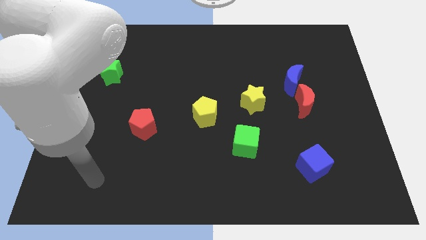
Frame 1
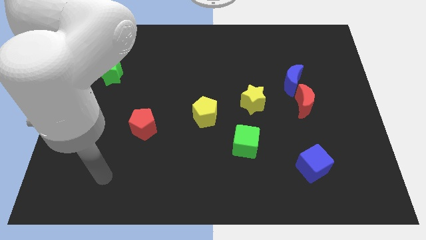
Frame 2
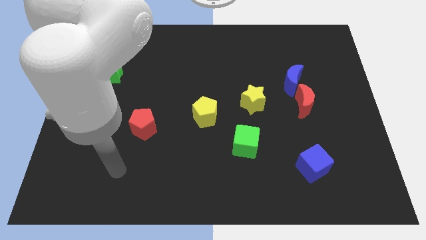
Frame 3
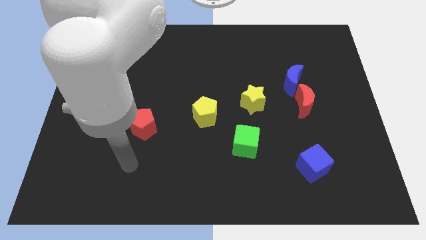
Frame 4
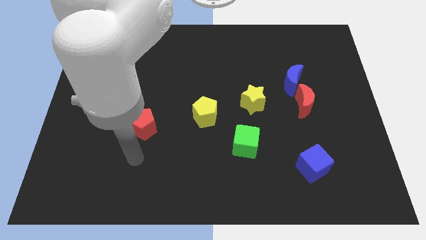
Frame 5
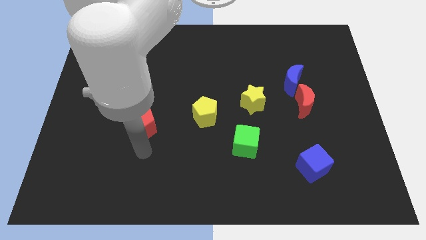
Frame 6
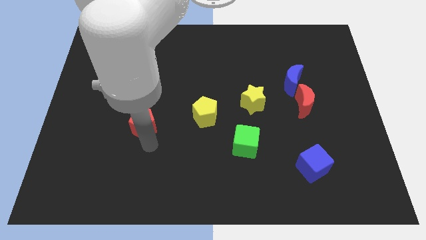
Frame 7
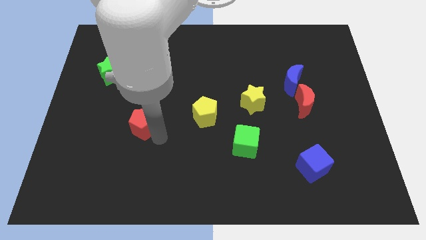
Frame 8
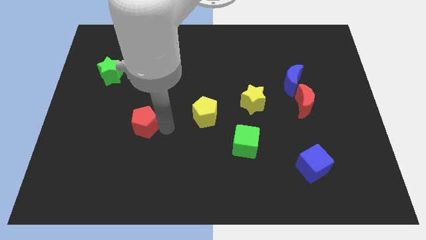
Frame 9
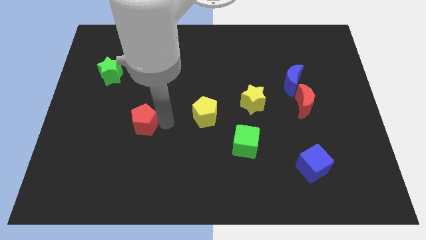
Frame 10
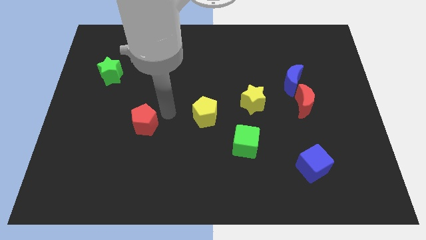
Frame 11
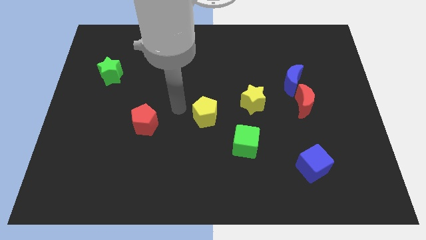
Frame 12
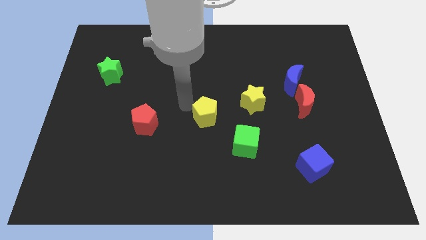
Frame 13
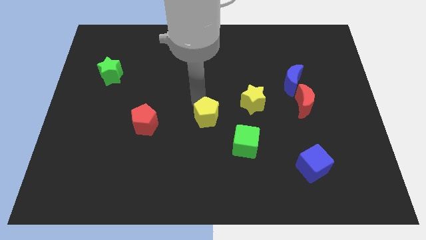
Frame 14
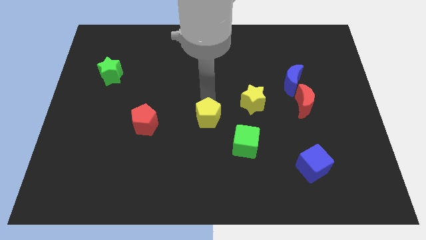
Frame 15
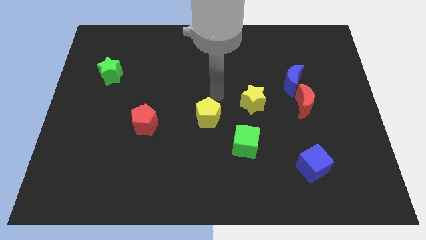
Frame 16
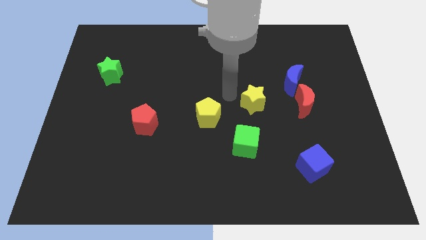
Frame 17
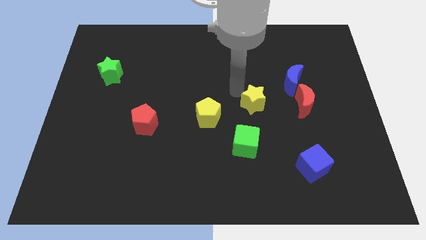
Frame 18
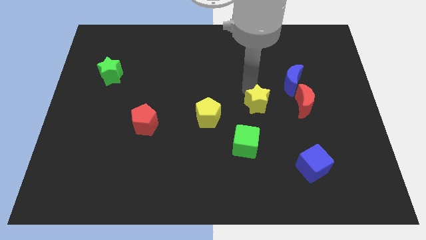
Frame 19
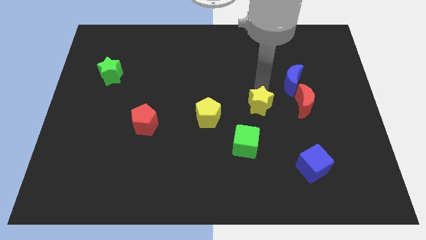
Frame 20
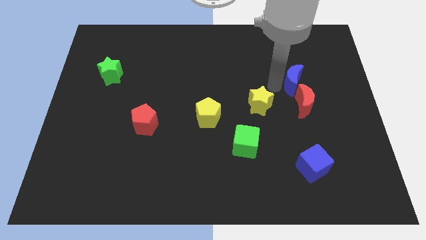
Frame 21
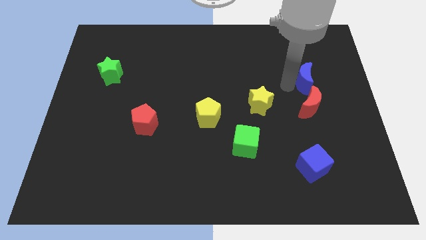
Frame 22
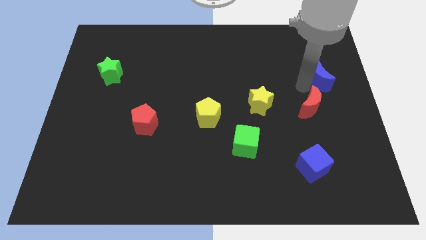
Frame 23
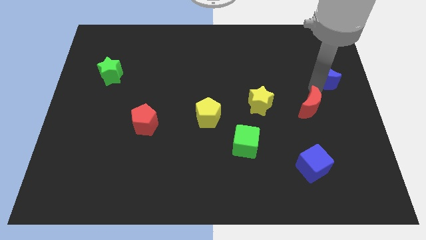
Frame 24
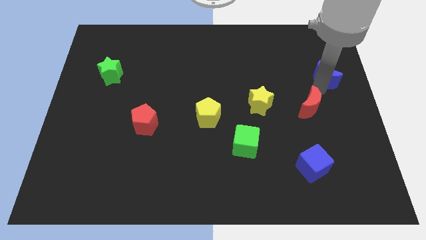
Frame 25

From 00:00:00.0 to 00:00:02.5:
separate the red moon from the blue moon

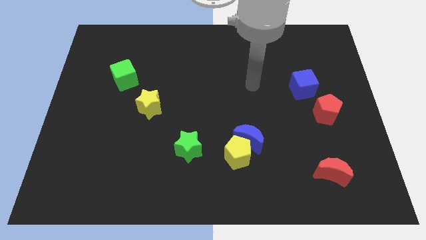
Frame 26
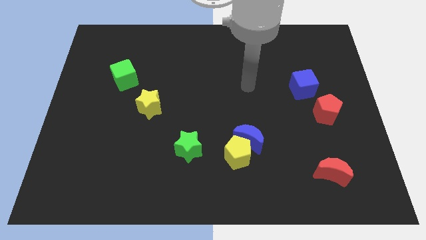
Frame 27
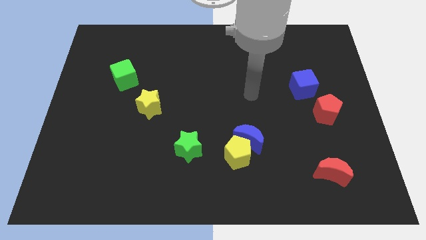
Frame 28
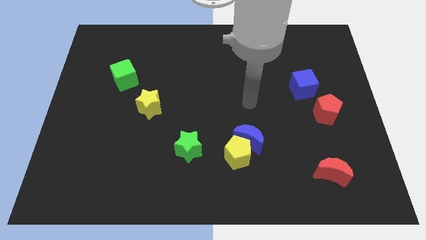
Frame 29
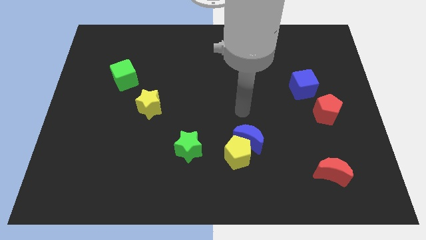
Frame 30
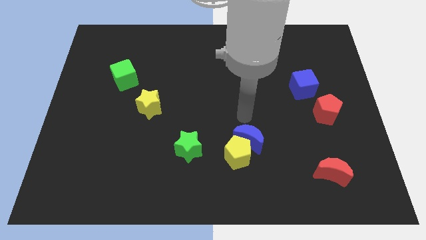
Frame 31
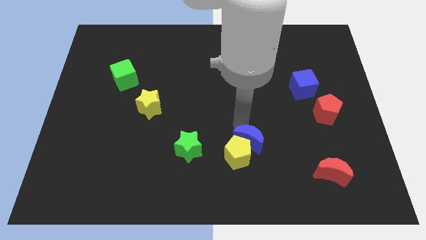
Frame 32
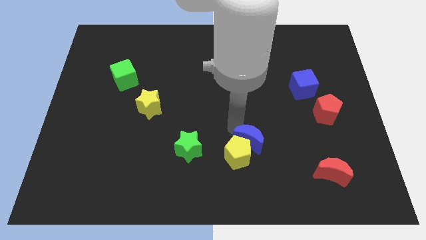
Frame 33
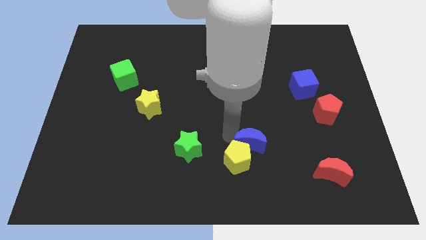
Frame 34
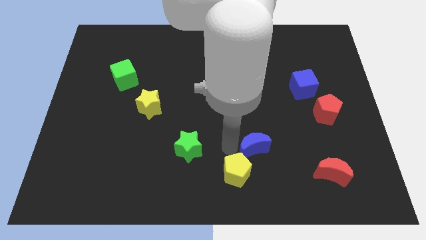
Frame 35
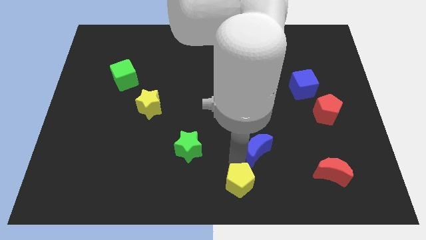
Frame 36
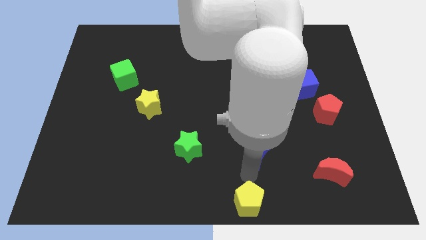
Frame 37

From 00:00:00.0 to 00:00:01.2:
separate the blue moon from the yellow pentagon

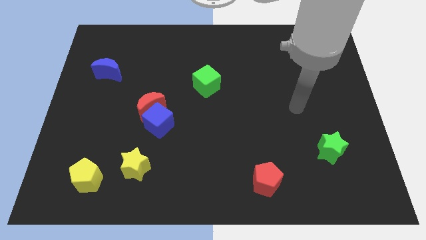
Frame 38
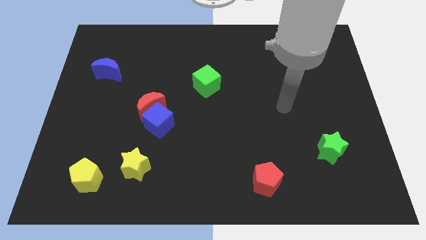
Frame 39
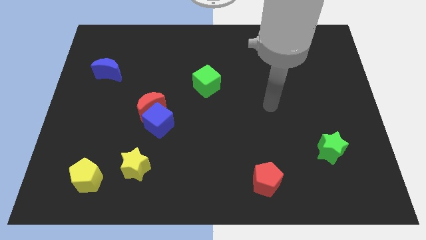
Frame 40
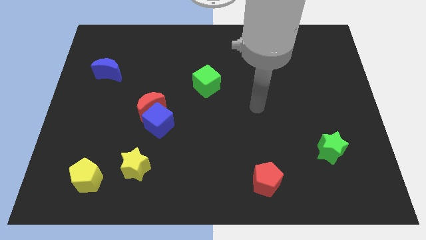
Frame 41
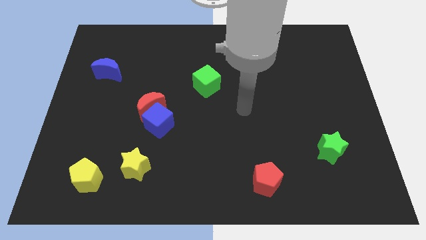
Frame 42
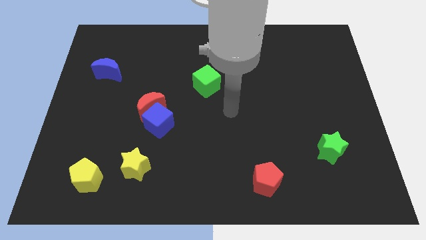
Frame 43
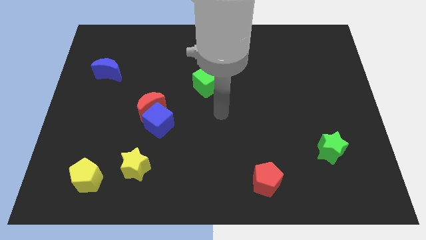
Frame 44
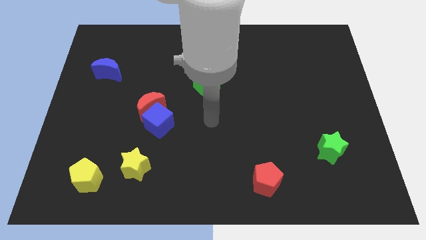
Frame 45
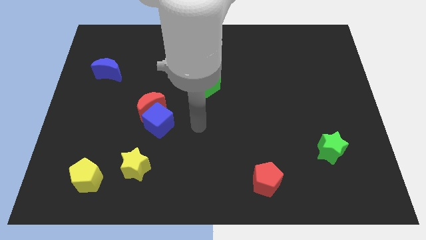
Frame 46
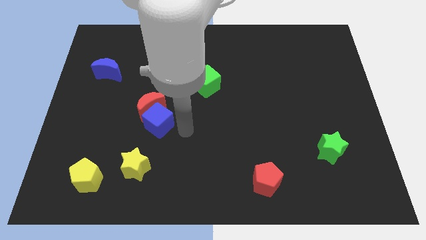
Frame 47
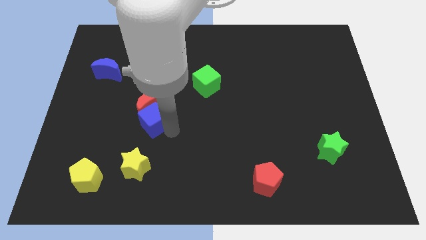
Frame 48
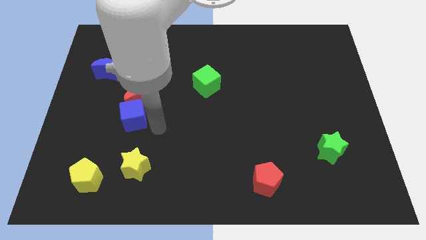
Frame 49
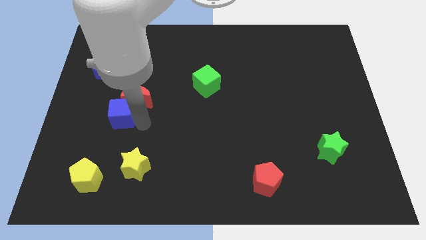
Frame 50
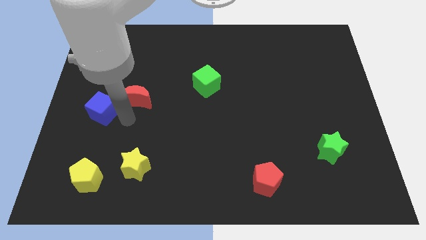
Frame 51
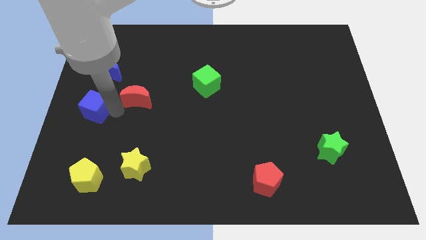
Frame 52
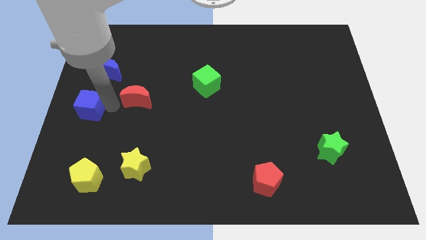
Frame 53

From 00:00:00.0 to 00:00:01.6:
separate the red moon from the blue cube

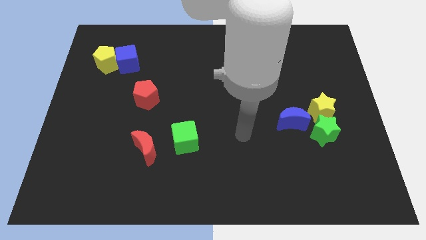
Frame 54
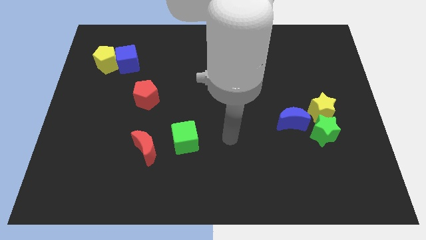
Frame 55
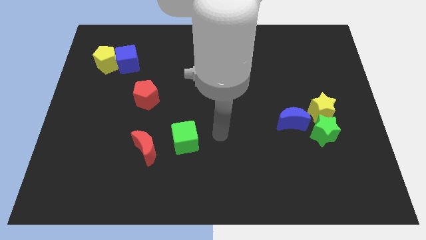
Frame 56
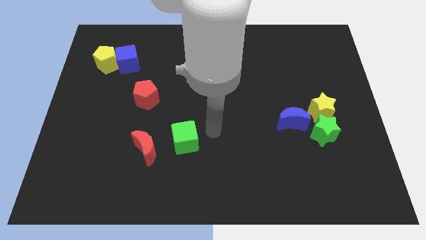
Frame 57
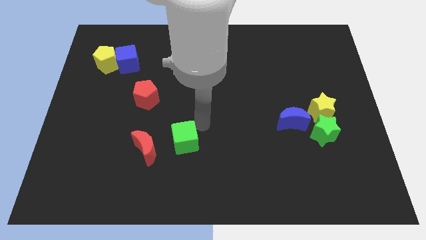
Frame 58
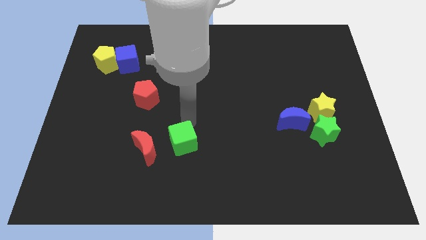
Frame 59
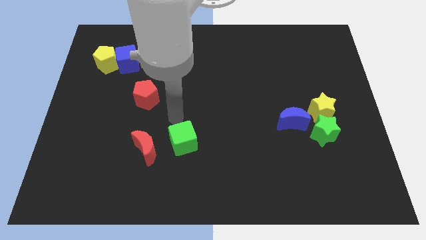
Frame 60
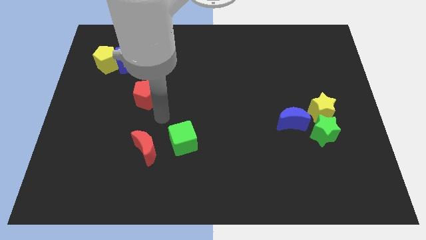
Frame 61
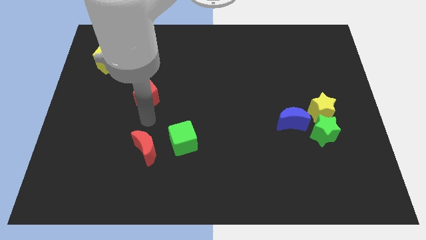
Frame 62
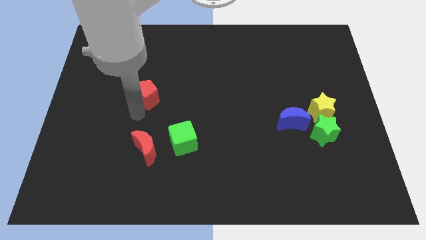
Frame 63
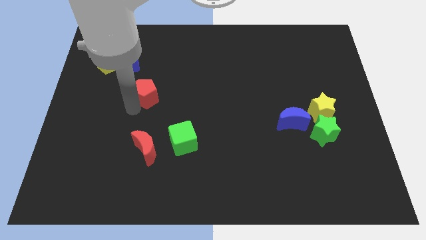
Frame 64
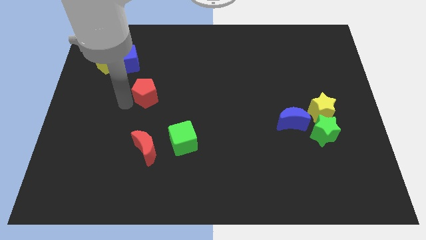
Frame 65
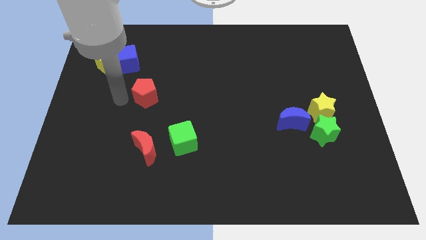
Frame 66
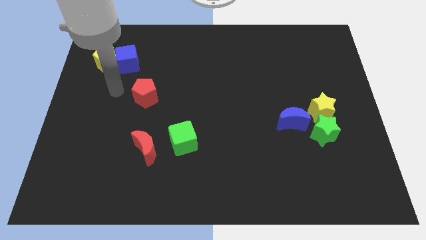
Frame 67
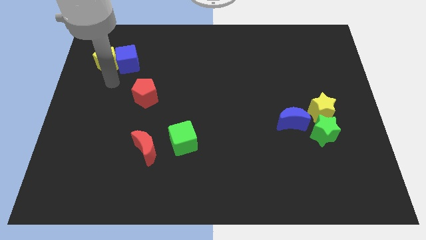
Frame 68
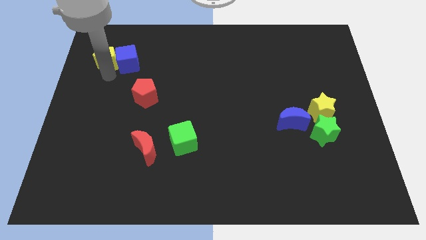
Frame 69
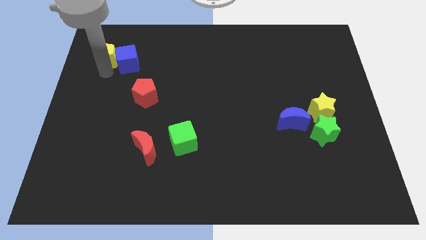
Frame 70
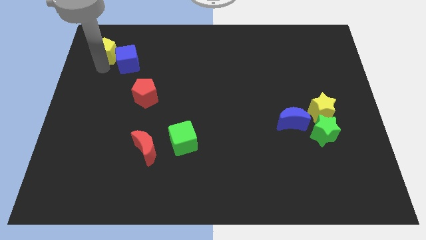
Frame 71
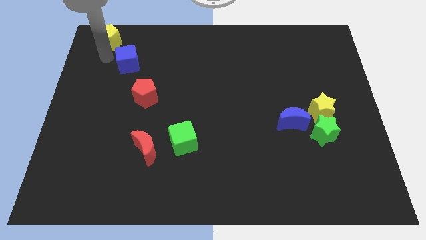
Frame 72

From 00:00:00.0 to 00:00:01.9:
move the blue cube away from the yellow pentagon

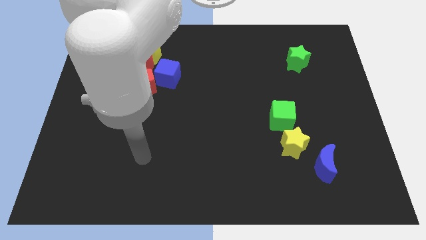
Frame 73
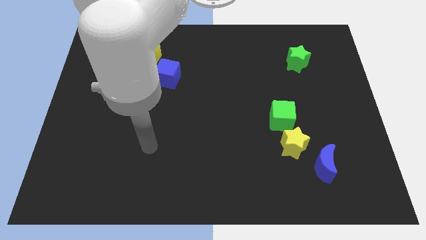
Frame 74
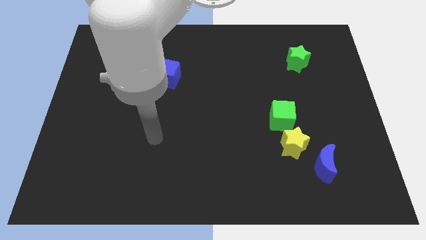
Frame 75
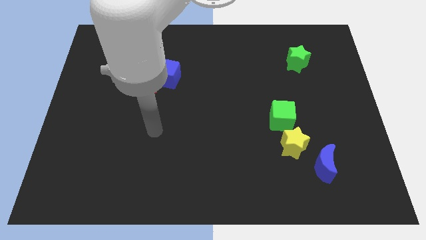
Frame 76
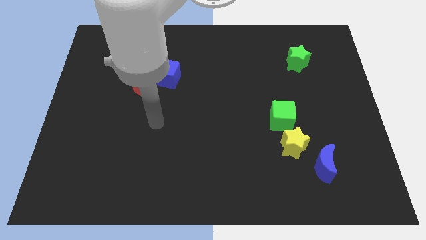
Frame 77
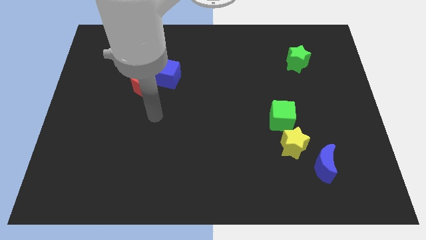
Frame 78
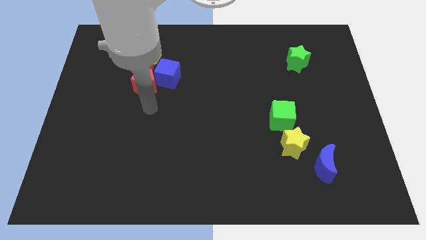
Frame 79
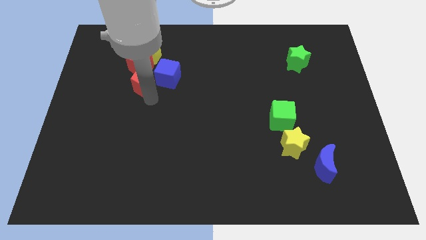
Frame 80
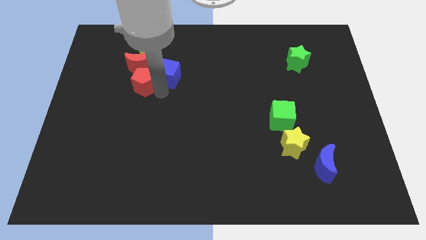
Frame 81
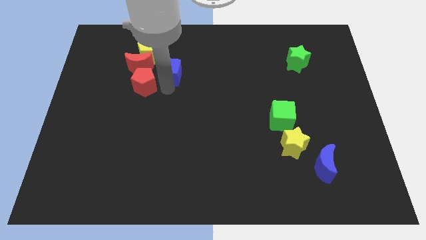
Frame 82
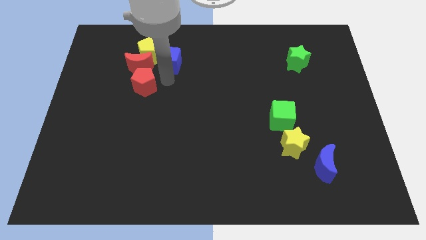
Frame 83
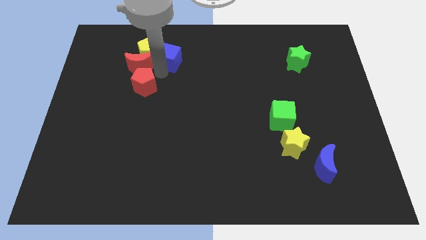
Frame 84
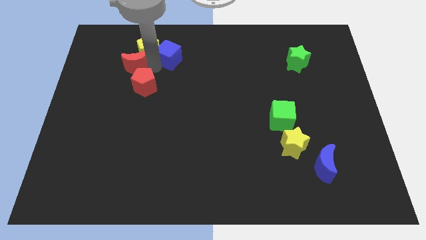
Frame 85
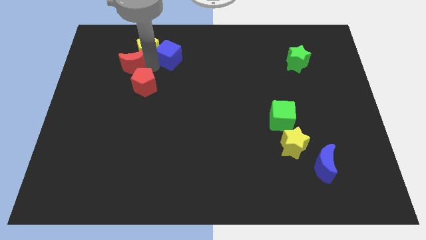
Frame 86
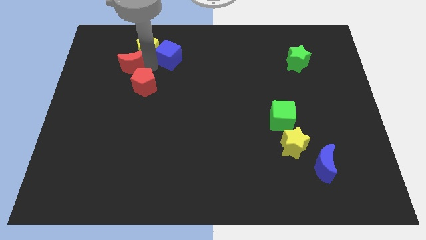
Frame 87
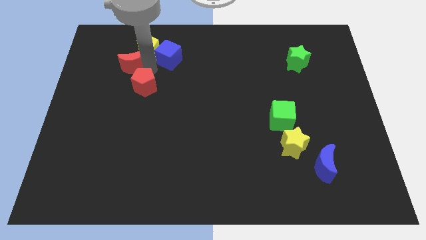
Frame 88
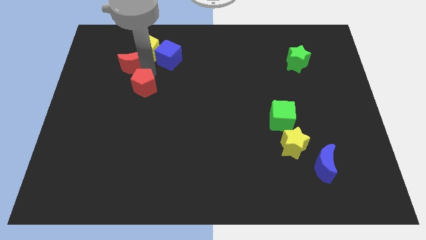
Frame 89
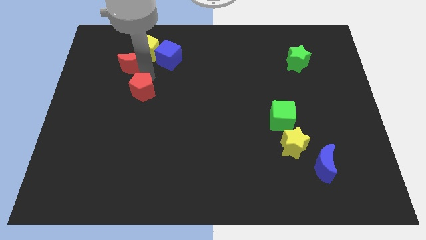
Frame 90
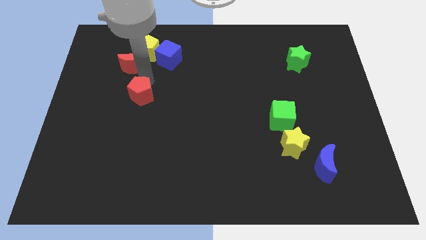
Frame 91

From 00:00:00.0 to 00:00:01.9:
separate the red pentagon from the blue cube and red moon

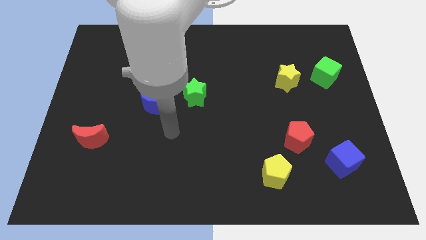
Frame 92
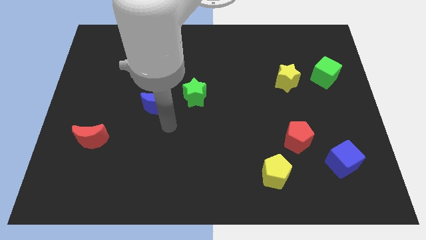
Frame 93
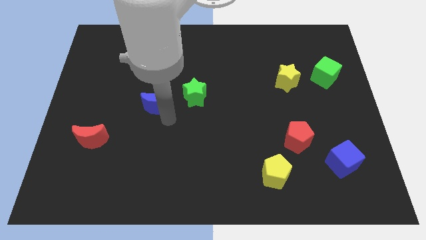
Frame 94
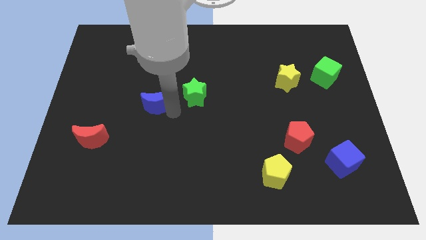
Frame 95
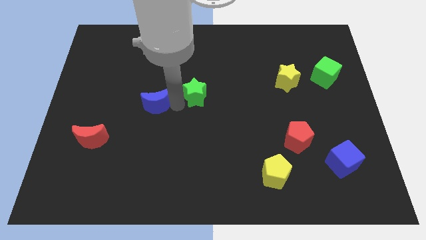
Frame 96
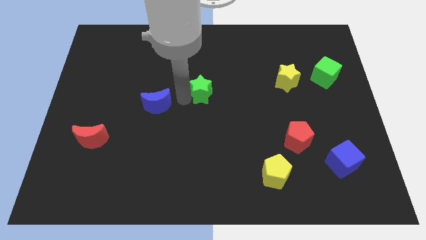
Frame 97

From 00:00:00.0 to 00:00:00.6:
move the blue moon away from the green star
